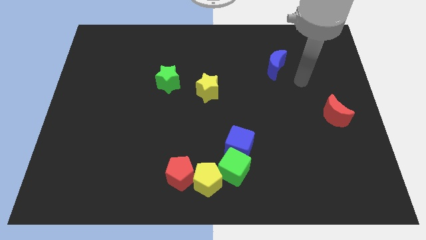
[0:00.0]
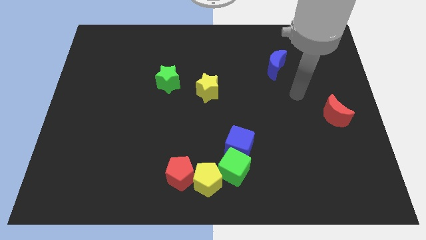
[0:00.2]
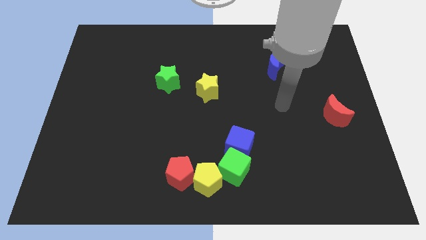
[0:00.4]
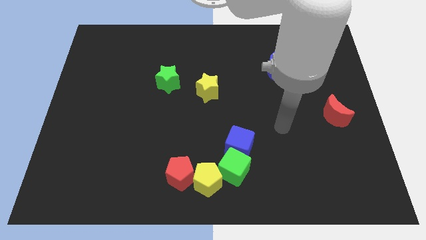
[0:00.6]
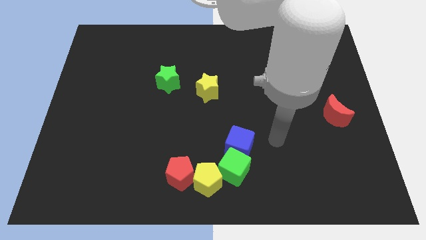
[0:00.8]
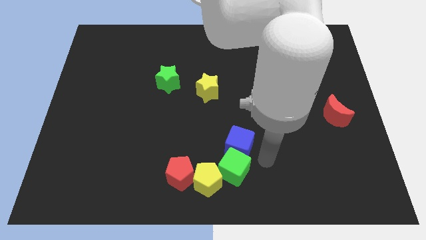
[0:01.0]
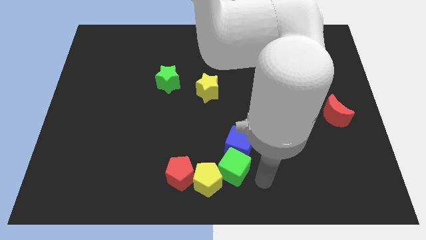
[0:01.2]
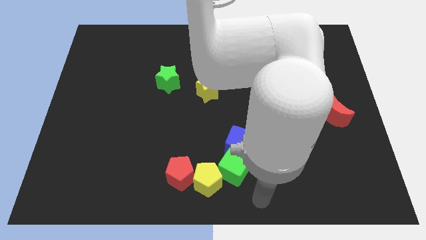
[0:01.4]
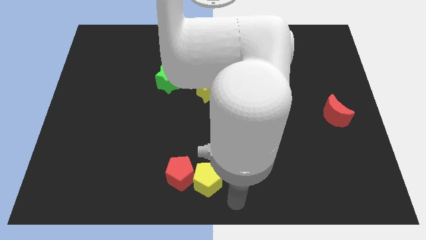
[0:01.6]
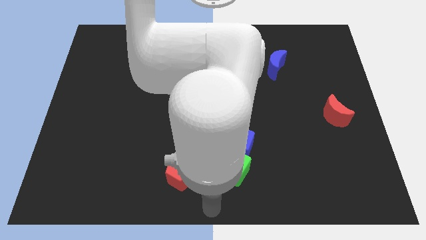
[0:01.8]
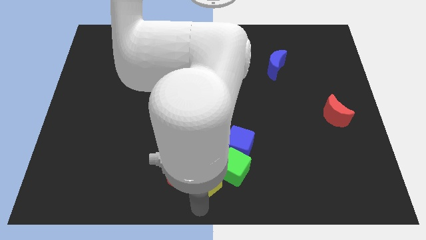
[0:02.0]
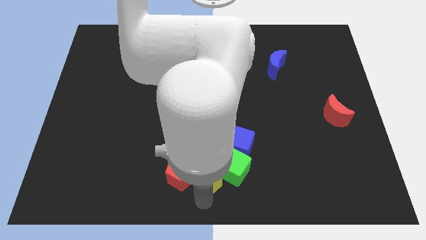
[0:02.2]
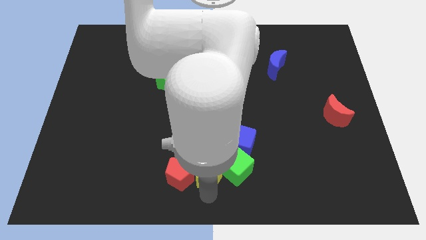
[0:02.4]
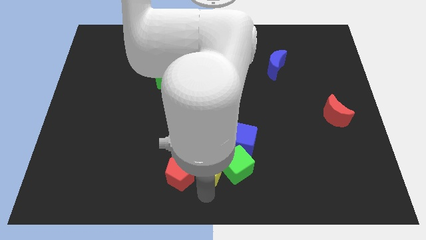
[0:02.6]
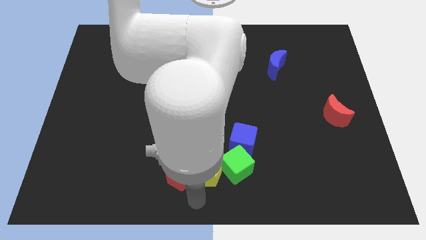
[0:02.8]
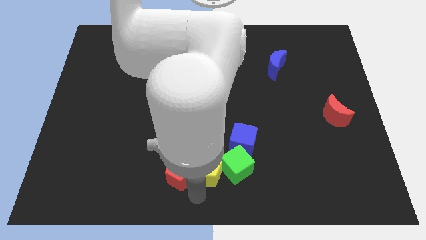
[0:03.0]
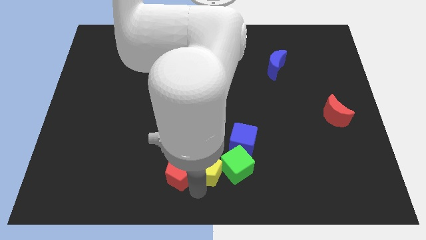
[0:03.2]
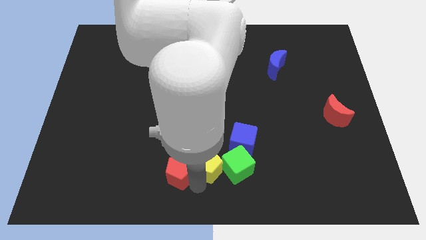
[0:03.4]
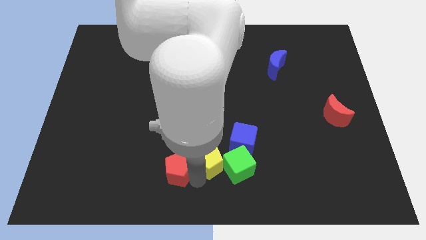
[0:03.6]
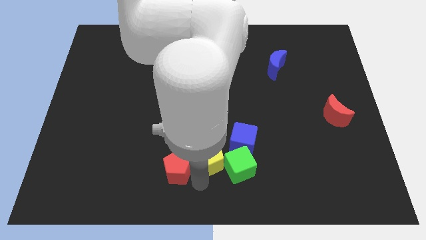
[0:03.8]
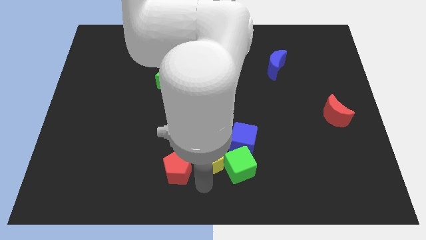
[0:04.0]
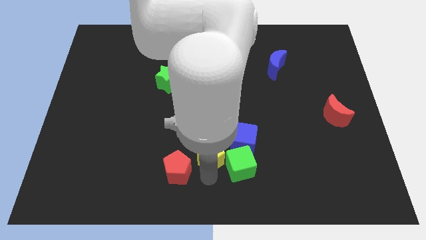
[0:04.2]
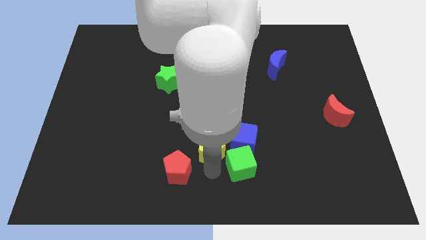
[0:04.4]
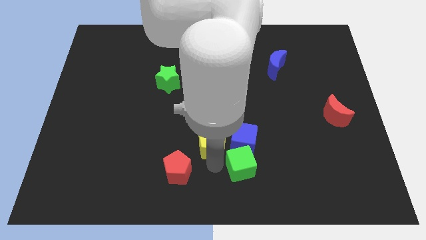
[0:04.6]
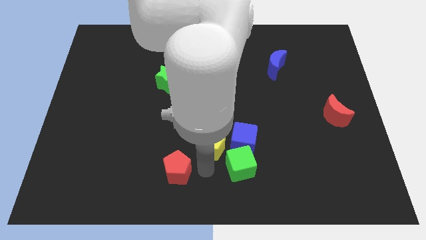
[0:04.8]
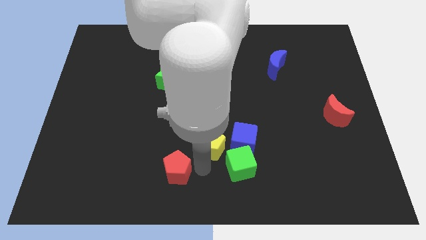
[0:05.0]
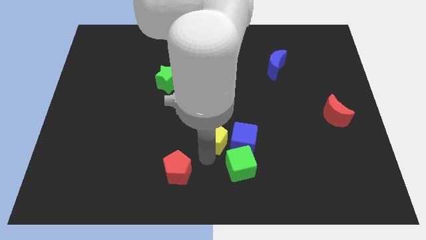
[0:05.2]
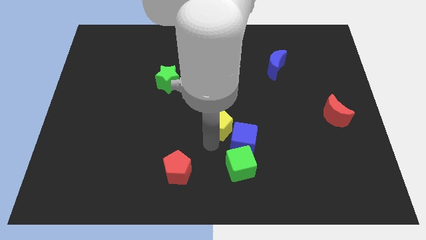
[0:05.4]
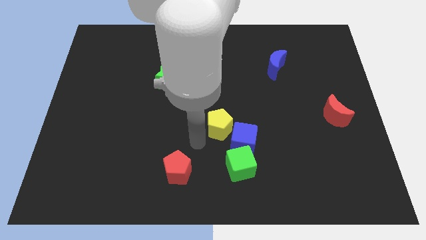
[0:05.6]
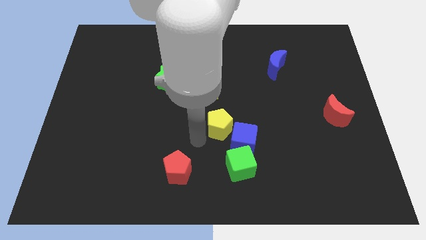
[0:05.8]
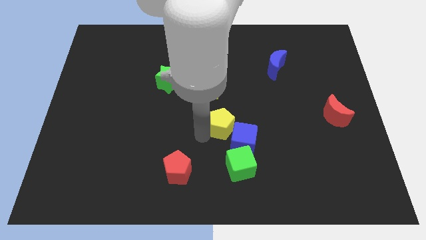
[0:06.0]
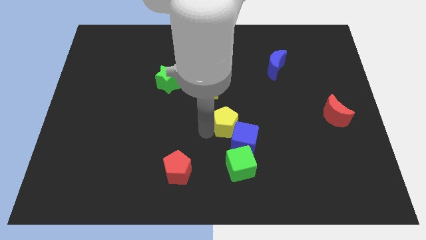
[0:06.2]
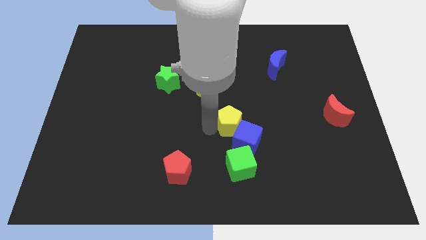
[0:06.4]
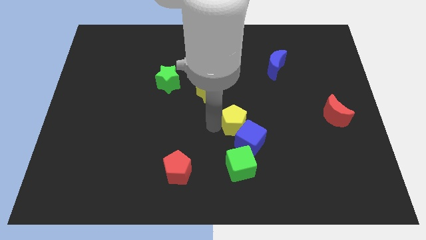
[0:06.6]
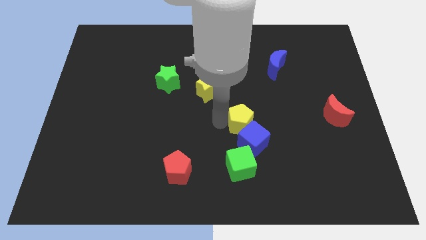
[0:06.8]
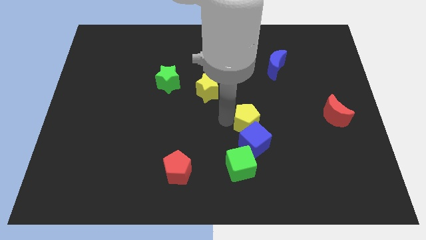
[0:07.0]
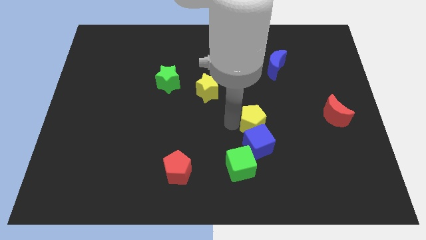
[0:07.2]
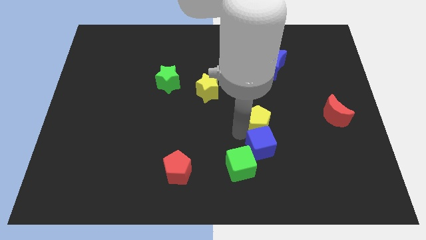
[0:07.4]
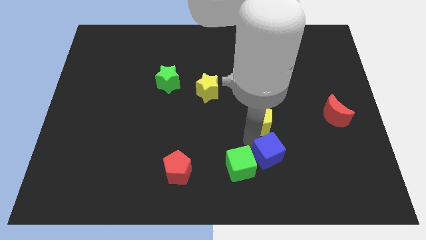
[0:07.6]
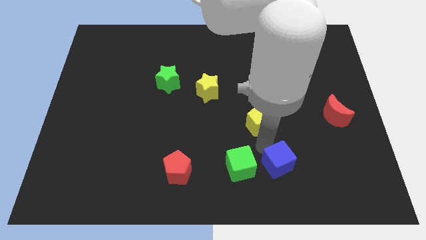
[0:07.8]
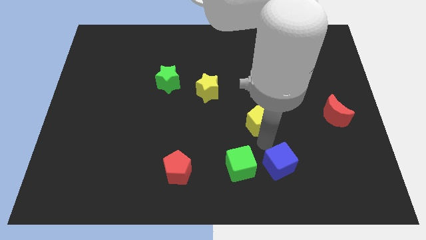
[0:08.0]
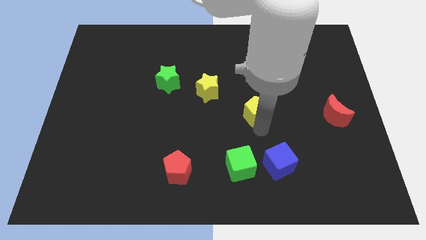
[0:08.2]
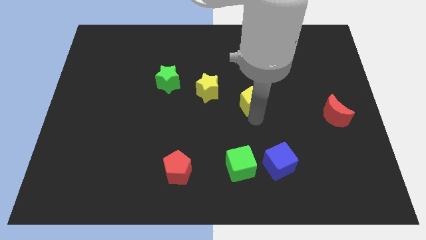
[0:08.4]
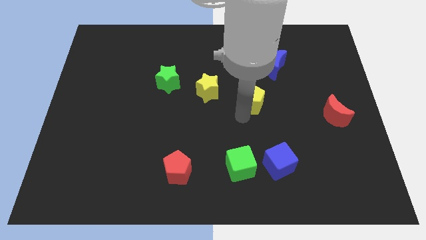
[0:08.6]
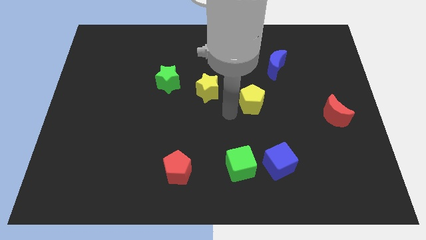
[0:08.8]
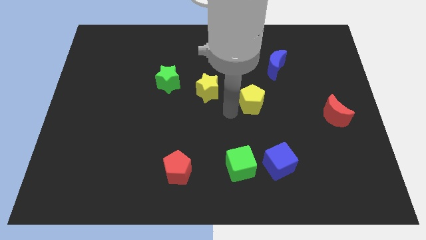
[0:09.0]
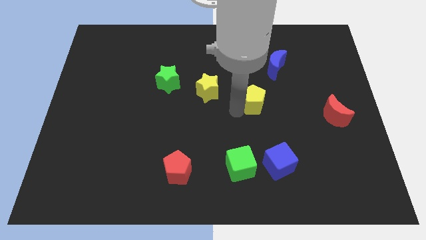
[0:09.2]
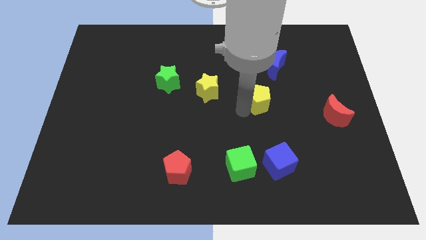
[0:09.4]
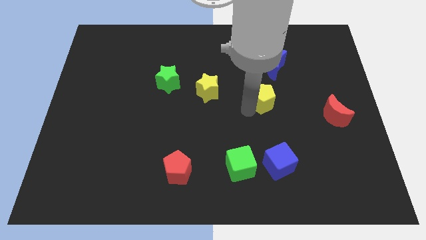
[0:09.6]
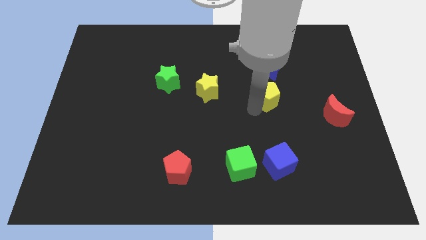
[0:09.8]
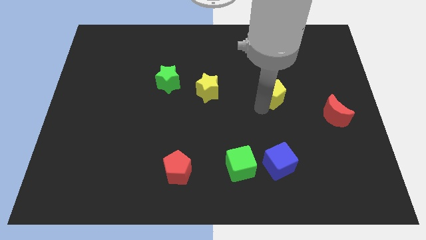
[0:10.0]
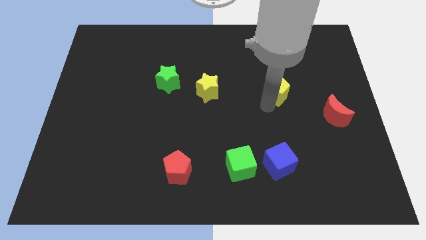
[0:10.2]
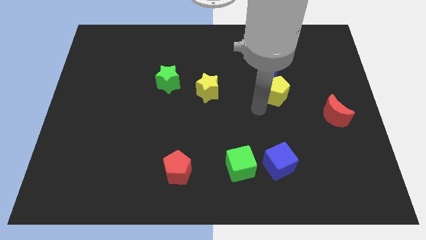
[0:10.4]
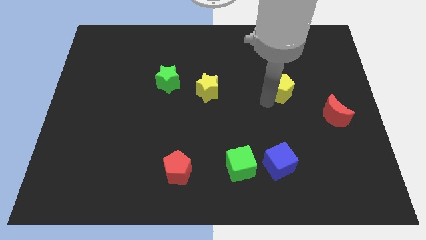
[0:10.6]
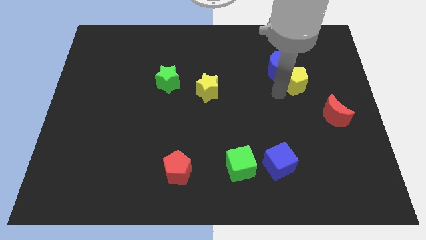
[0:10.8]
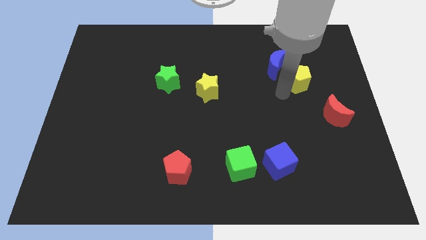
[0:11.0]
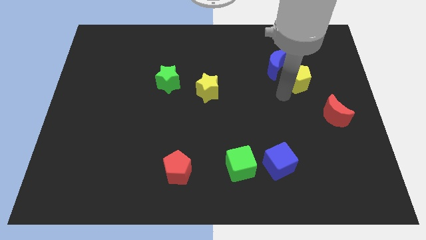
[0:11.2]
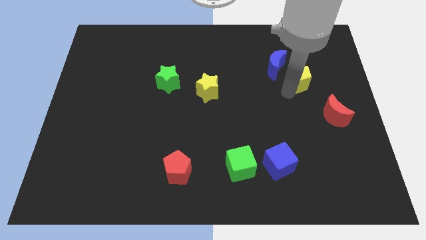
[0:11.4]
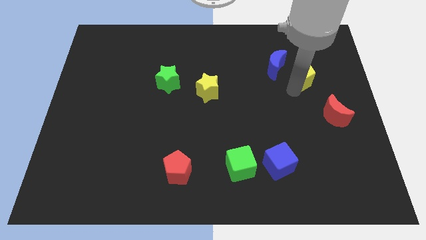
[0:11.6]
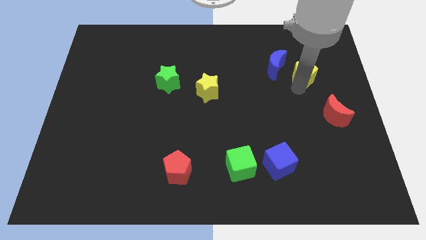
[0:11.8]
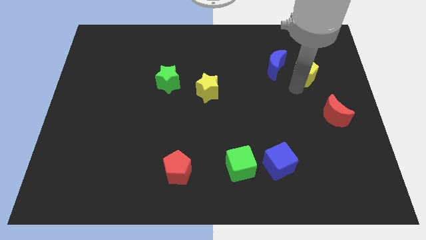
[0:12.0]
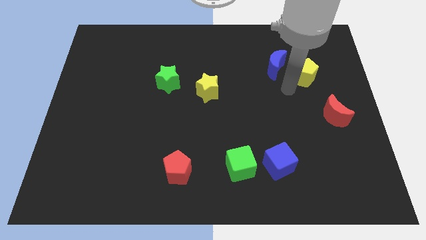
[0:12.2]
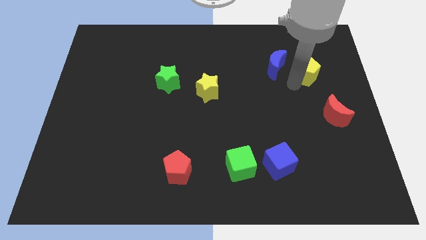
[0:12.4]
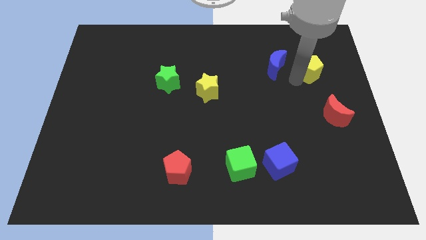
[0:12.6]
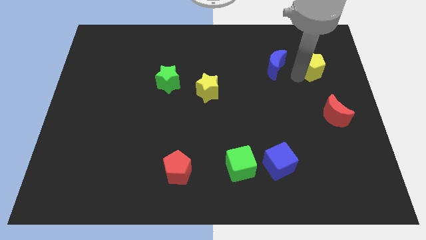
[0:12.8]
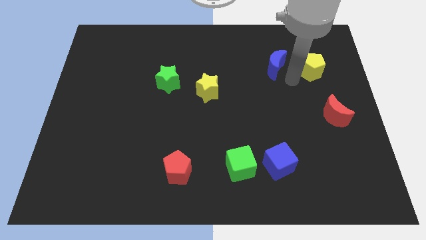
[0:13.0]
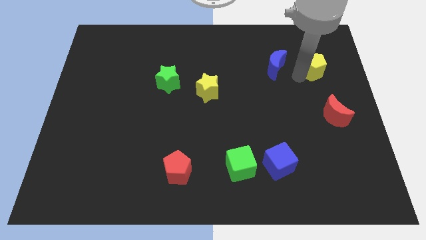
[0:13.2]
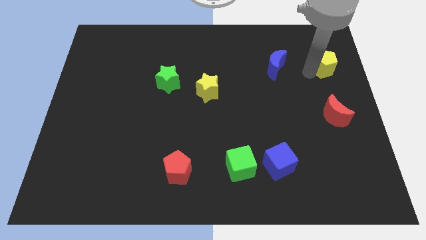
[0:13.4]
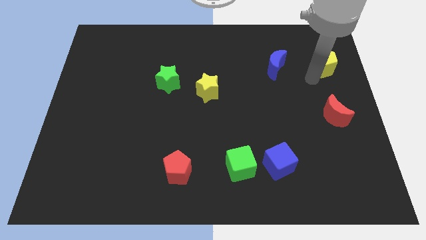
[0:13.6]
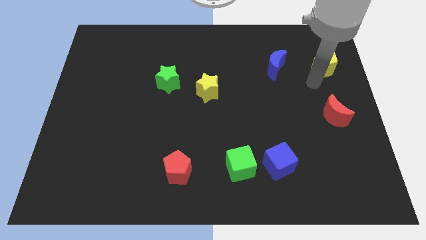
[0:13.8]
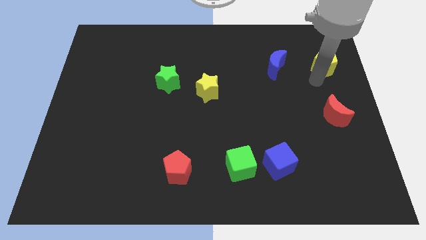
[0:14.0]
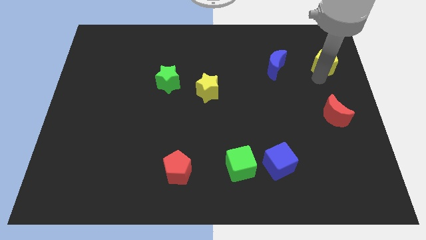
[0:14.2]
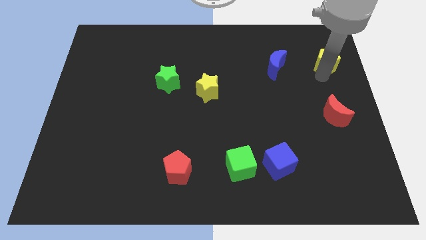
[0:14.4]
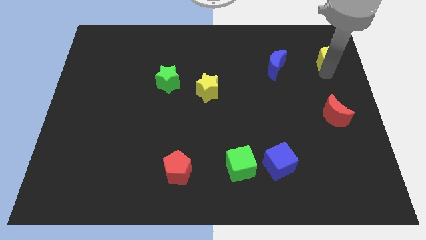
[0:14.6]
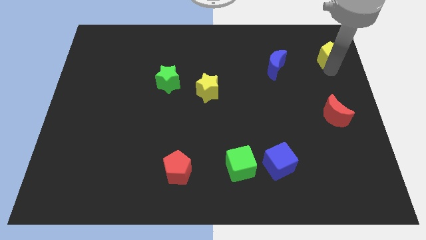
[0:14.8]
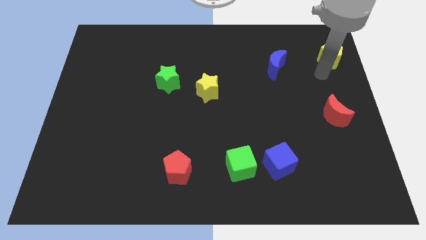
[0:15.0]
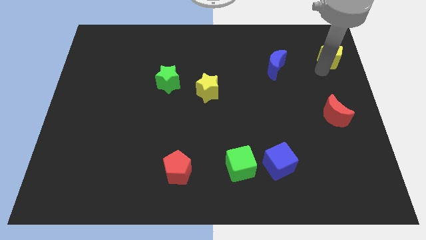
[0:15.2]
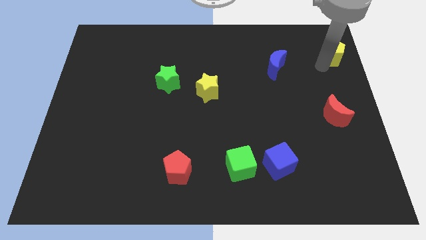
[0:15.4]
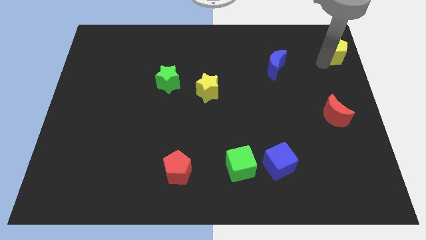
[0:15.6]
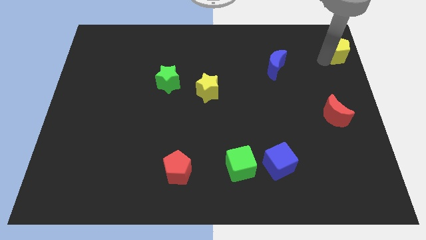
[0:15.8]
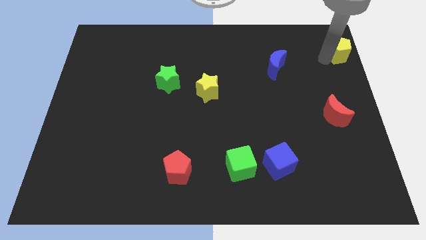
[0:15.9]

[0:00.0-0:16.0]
push the yellow pentagon to the upper right corner
